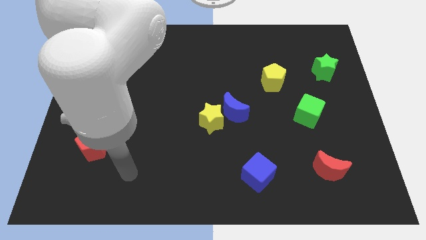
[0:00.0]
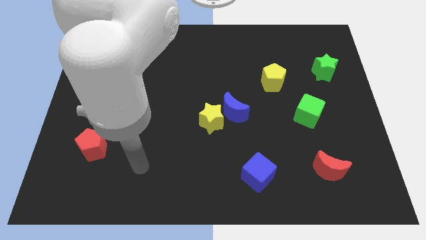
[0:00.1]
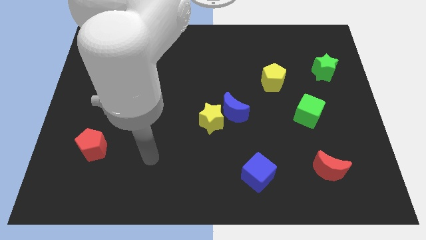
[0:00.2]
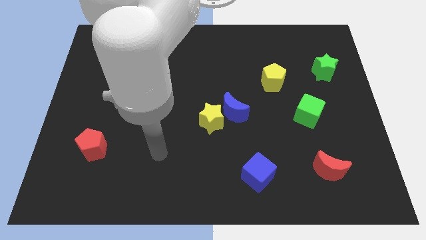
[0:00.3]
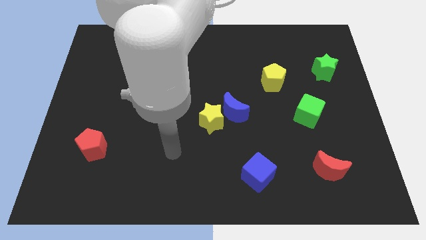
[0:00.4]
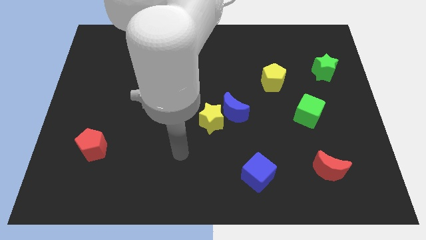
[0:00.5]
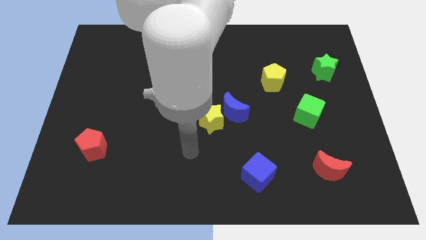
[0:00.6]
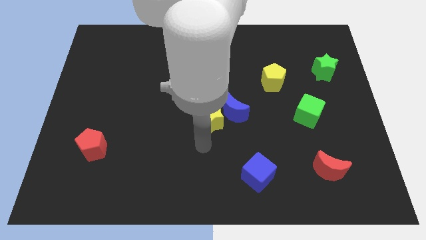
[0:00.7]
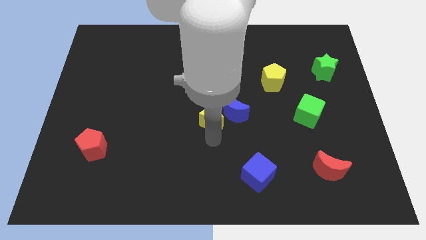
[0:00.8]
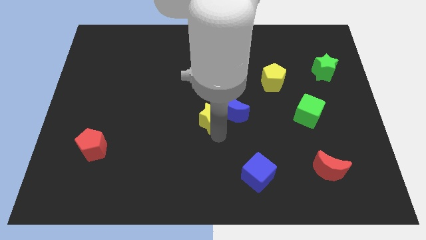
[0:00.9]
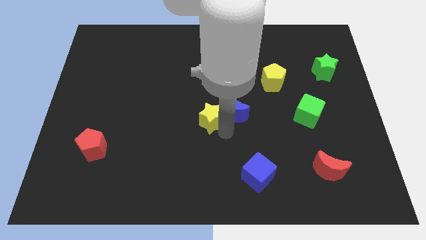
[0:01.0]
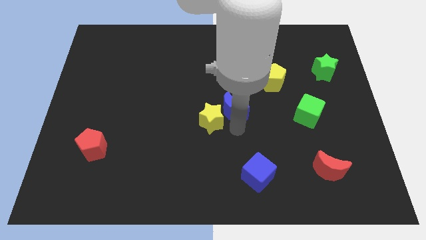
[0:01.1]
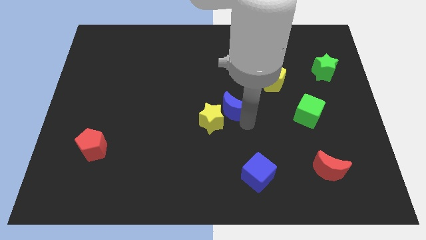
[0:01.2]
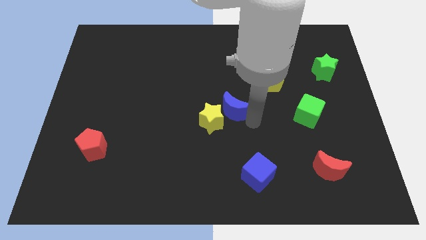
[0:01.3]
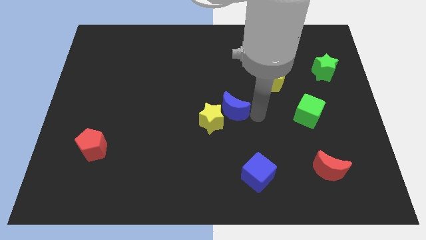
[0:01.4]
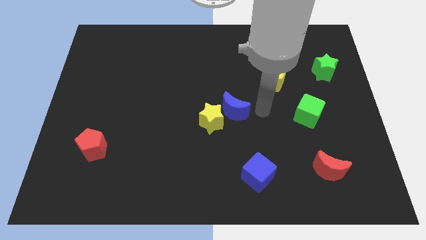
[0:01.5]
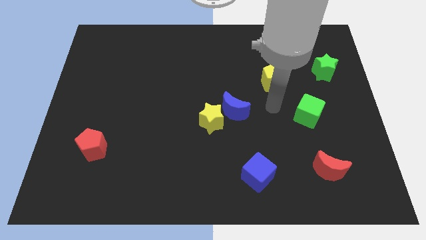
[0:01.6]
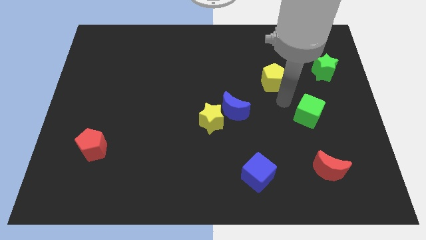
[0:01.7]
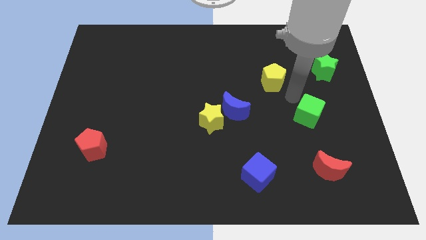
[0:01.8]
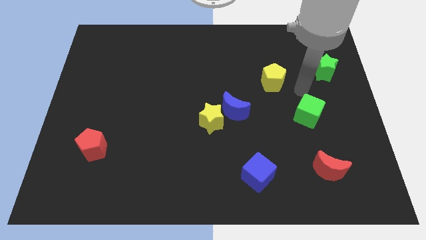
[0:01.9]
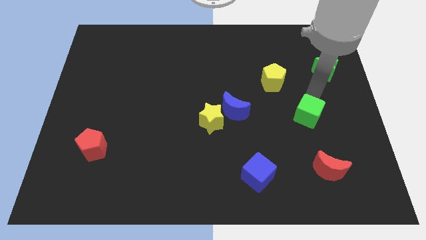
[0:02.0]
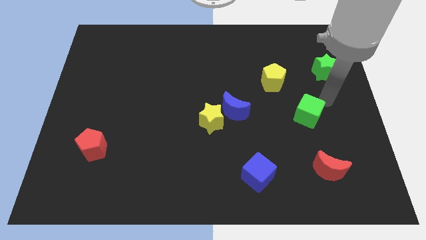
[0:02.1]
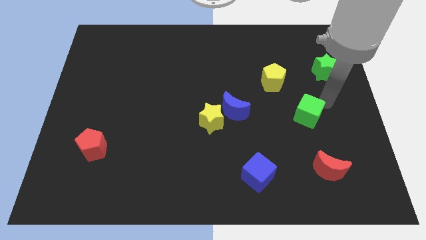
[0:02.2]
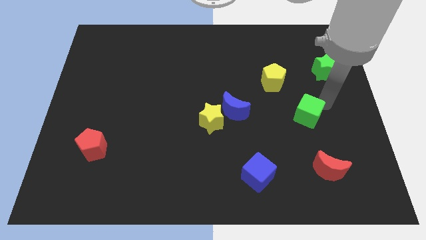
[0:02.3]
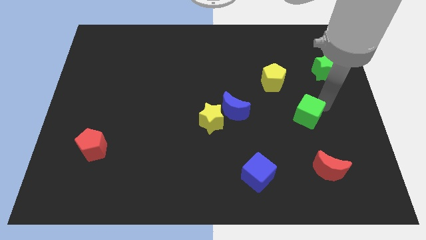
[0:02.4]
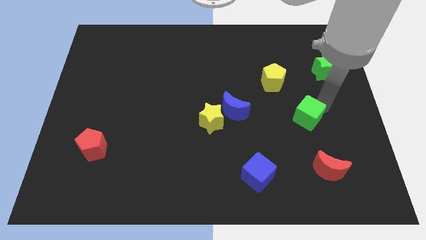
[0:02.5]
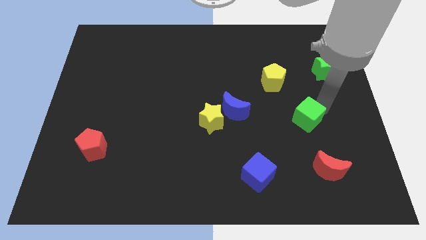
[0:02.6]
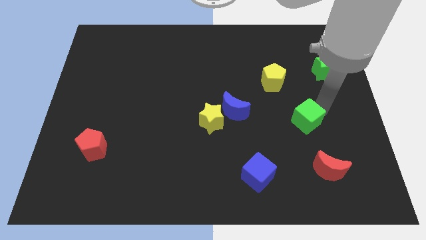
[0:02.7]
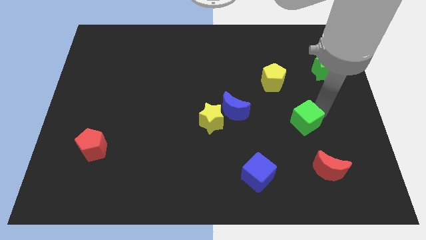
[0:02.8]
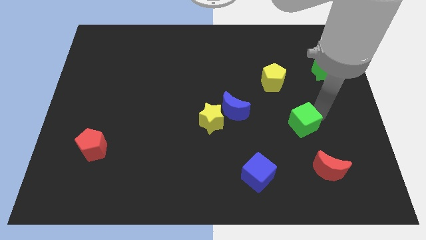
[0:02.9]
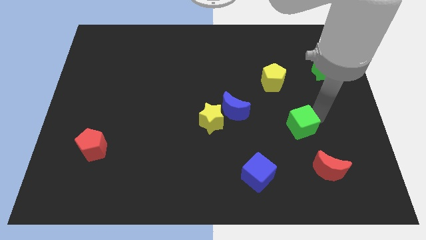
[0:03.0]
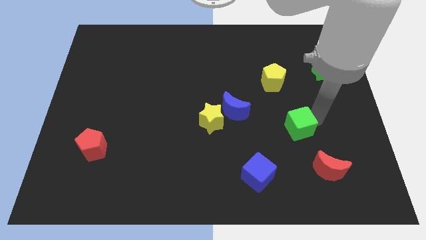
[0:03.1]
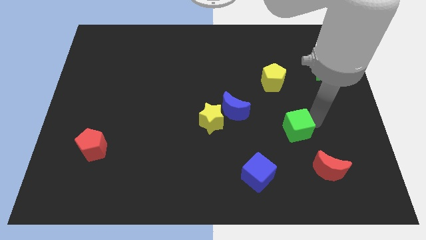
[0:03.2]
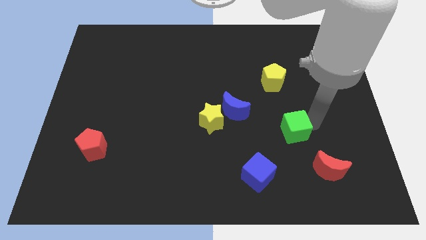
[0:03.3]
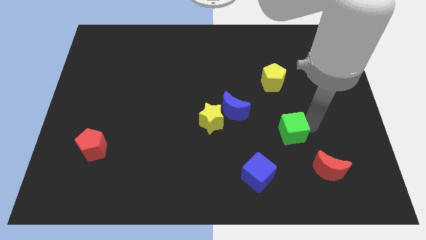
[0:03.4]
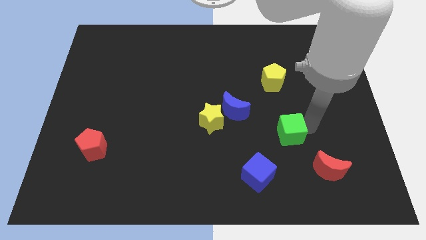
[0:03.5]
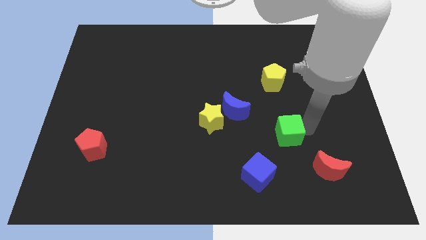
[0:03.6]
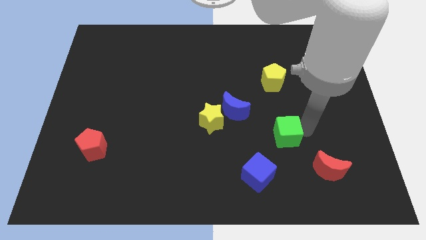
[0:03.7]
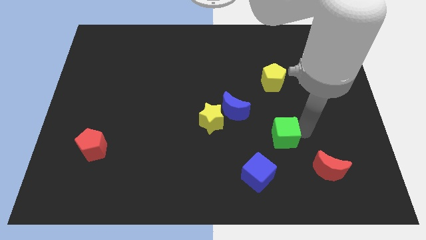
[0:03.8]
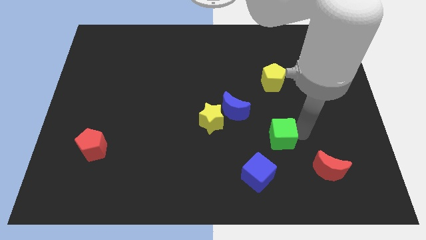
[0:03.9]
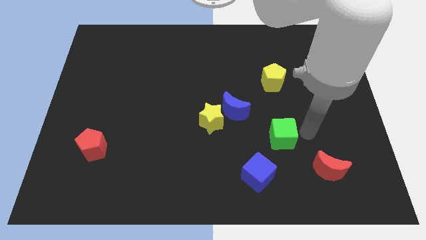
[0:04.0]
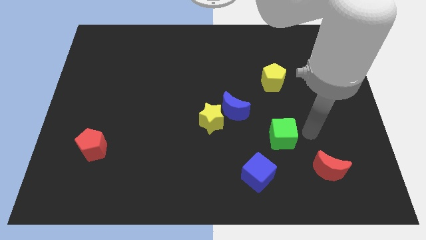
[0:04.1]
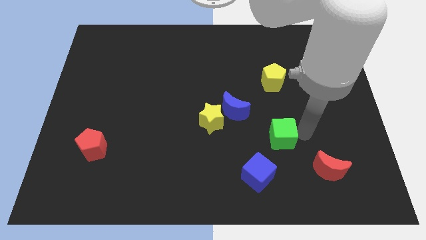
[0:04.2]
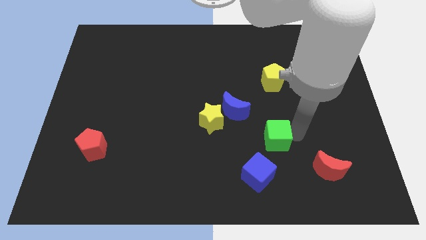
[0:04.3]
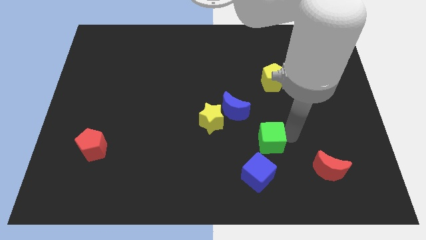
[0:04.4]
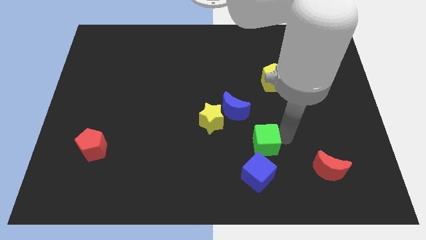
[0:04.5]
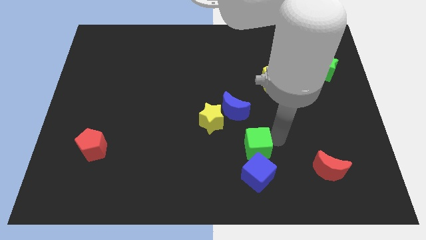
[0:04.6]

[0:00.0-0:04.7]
put the green cube to the bottom of the blue moon

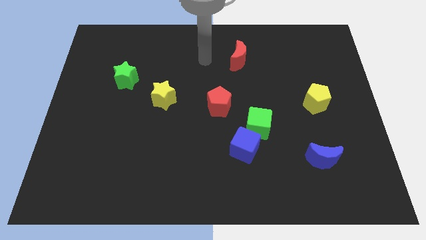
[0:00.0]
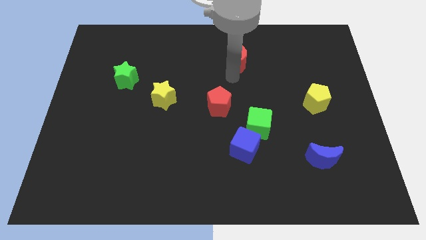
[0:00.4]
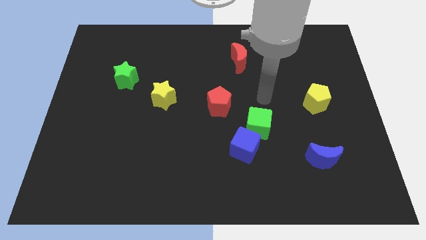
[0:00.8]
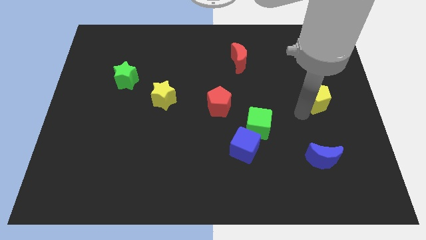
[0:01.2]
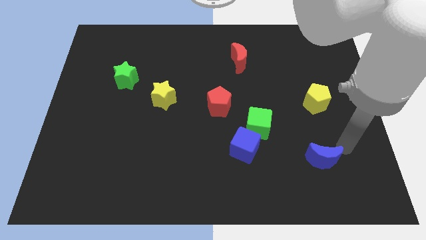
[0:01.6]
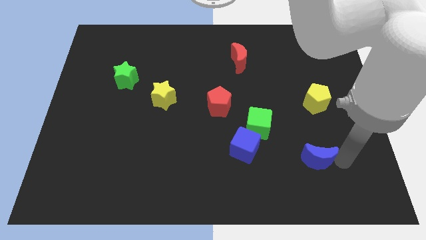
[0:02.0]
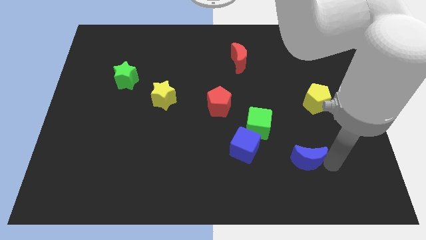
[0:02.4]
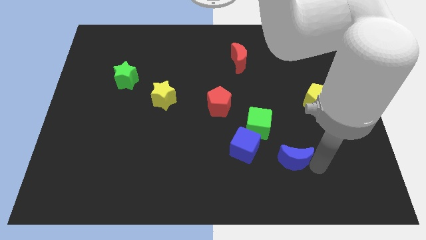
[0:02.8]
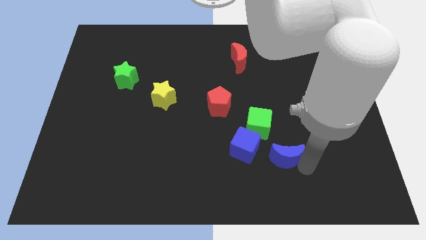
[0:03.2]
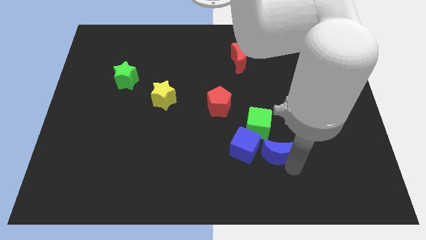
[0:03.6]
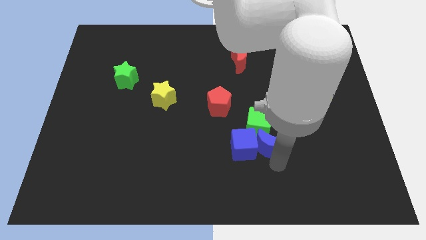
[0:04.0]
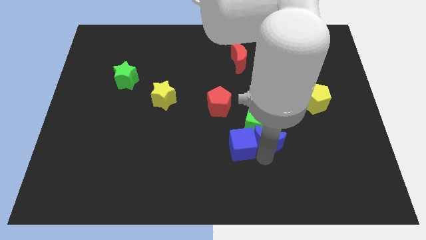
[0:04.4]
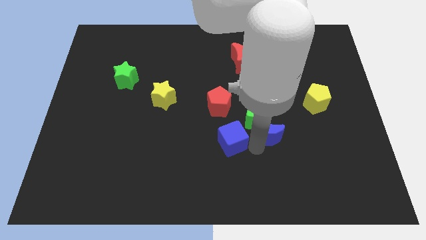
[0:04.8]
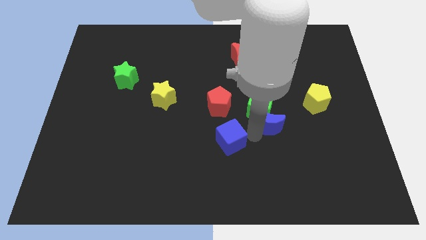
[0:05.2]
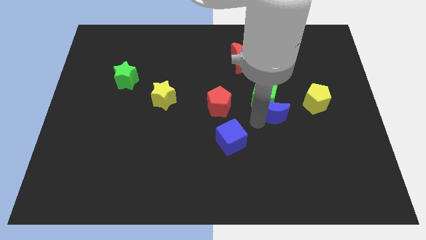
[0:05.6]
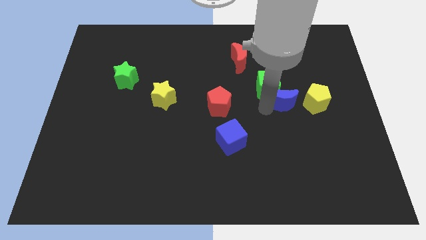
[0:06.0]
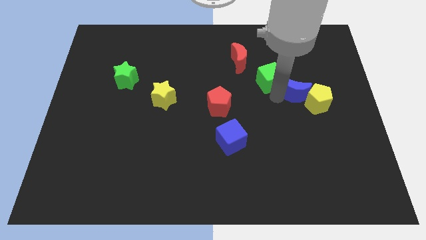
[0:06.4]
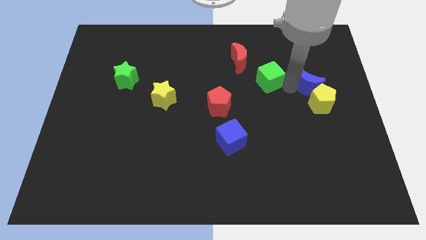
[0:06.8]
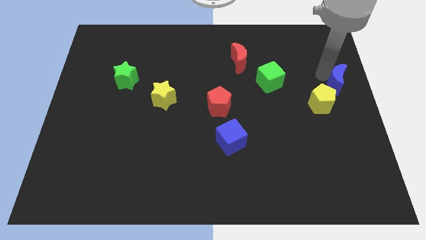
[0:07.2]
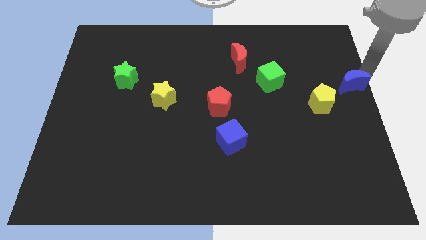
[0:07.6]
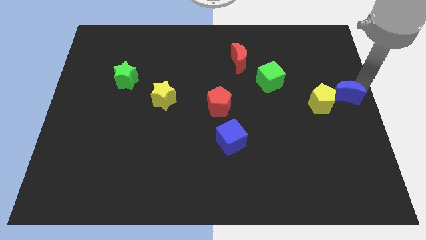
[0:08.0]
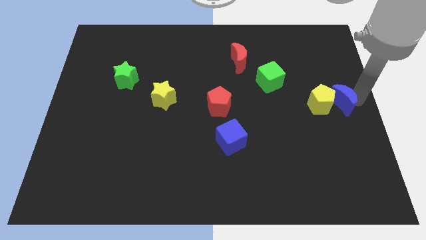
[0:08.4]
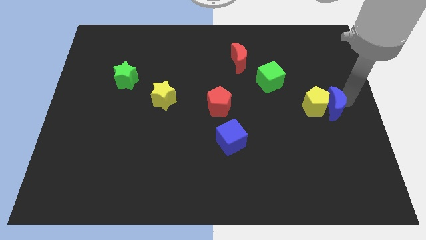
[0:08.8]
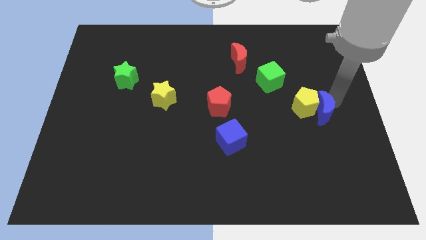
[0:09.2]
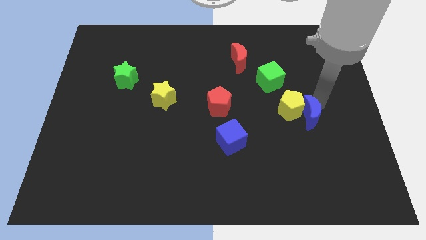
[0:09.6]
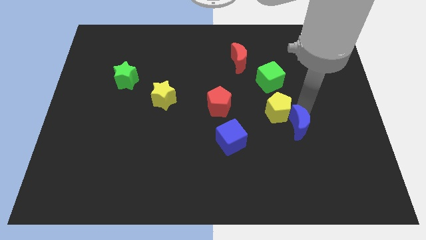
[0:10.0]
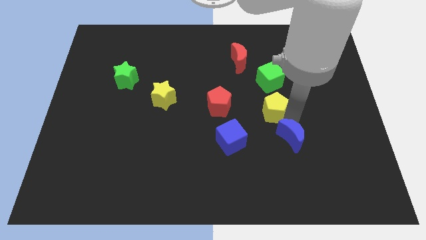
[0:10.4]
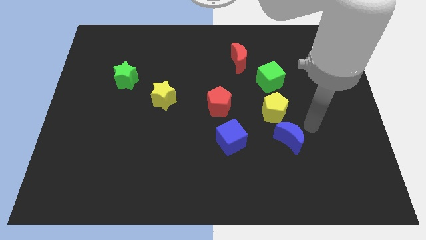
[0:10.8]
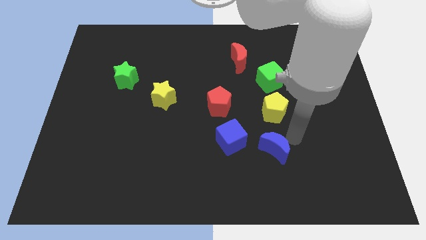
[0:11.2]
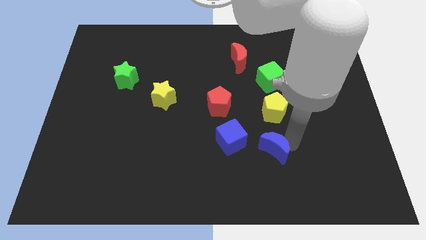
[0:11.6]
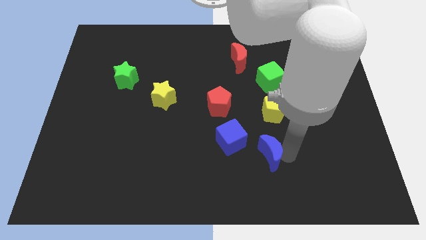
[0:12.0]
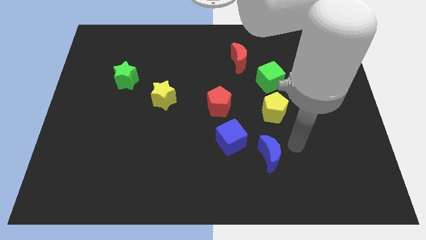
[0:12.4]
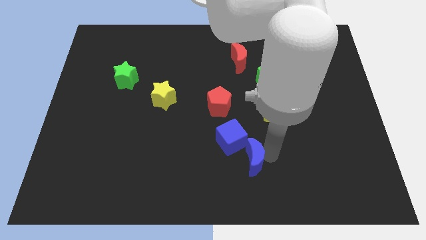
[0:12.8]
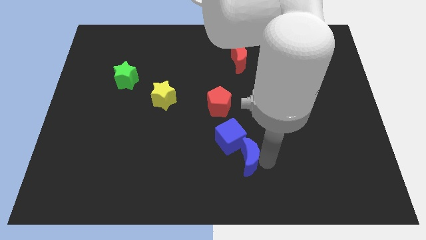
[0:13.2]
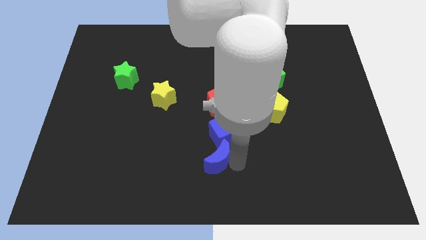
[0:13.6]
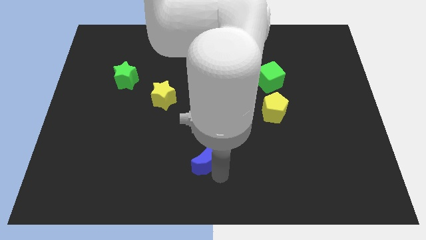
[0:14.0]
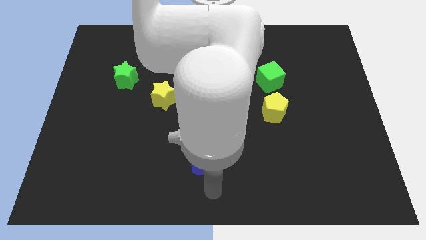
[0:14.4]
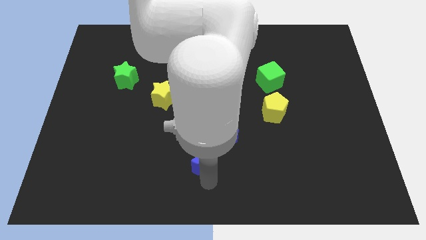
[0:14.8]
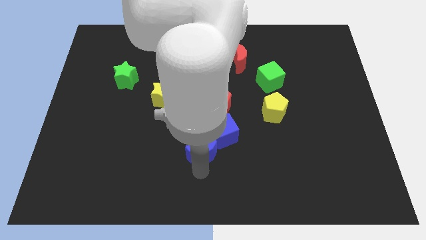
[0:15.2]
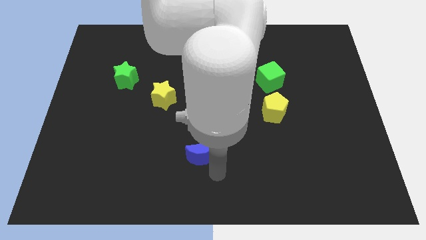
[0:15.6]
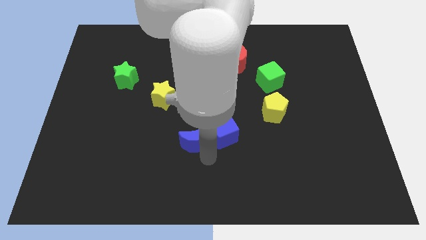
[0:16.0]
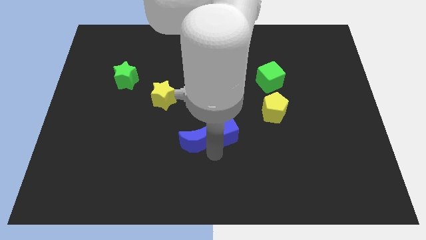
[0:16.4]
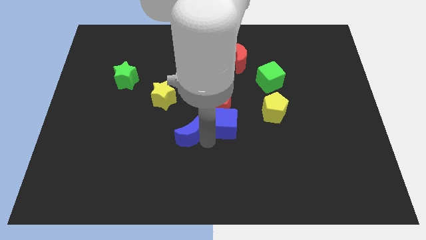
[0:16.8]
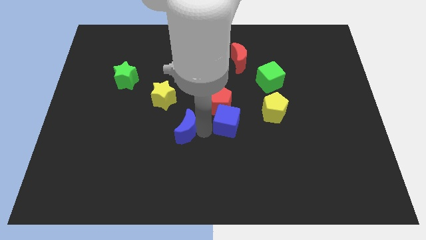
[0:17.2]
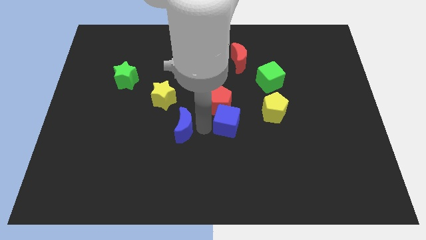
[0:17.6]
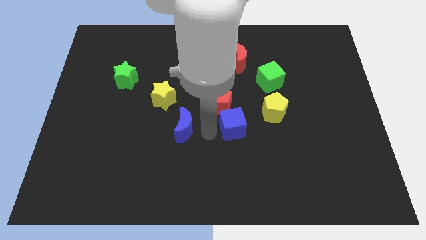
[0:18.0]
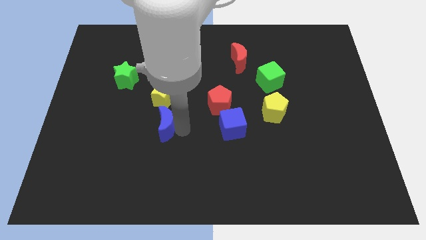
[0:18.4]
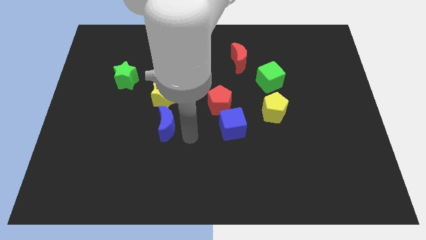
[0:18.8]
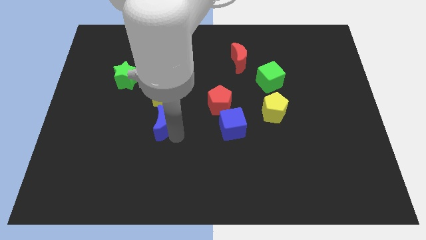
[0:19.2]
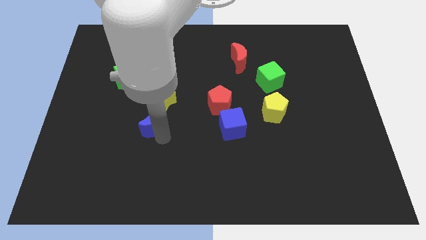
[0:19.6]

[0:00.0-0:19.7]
push the blue moon to the bottom left of the yellow star
